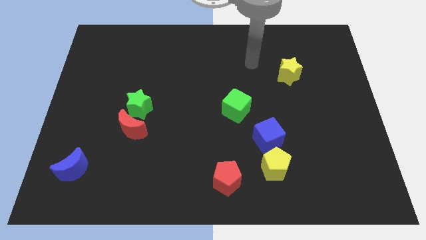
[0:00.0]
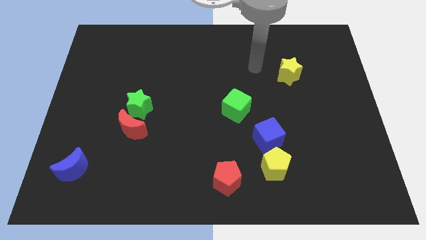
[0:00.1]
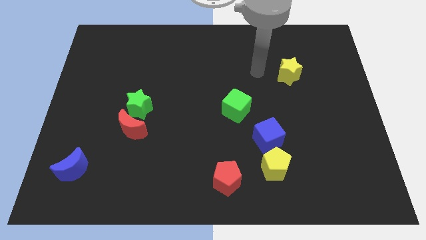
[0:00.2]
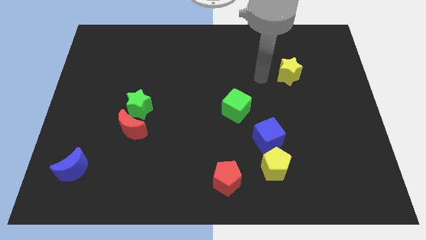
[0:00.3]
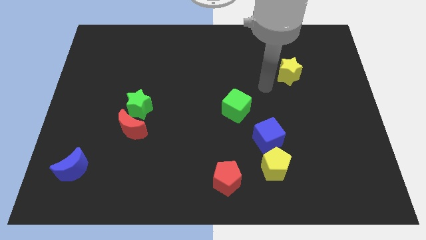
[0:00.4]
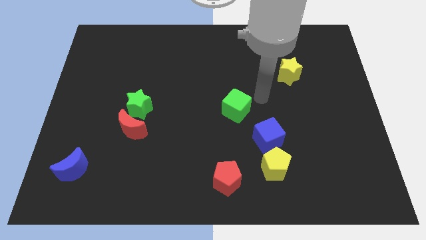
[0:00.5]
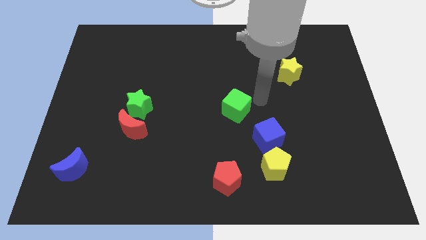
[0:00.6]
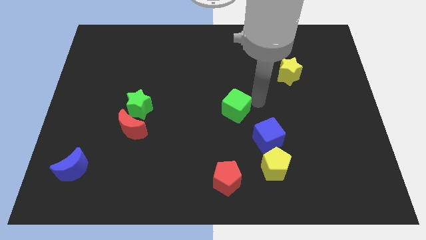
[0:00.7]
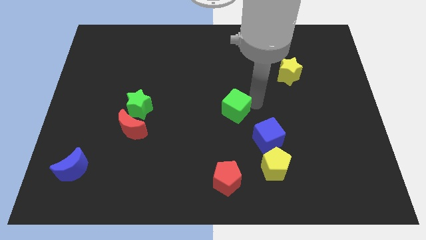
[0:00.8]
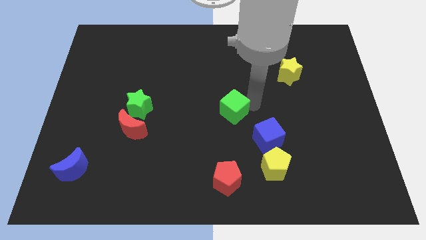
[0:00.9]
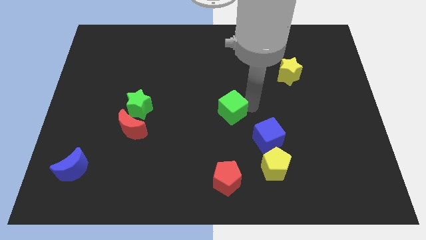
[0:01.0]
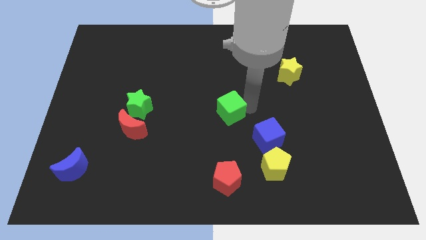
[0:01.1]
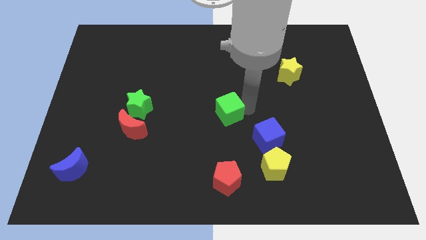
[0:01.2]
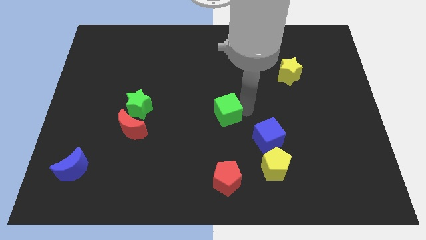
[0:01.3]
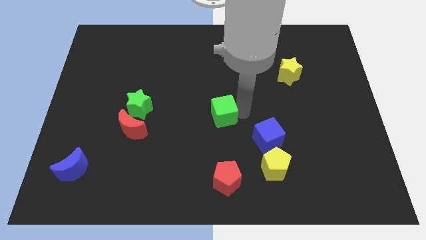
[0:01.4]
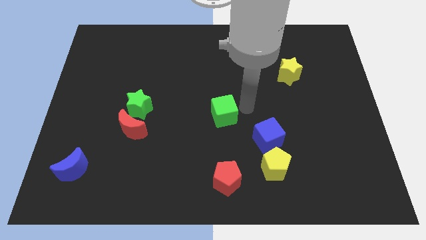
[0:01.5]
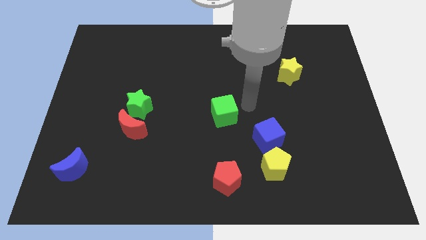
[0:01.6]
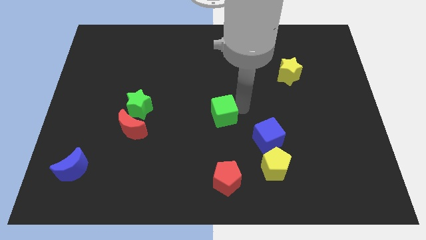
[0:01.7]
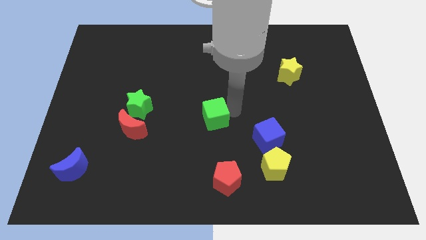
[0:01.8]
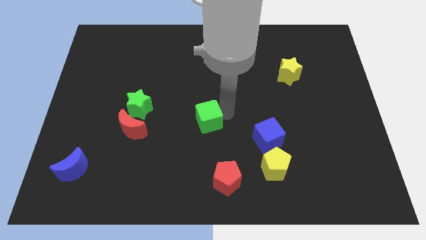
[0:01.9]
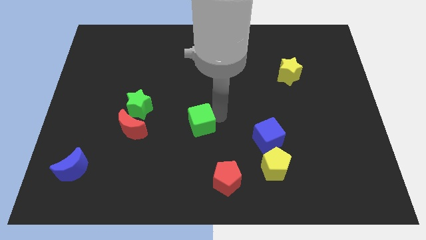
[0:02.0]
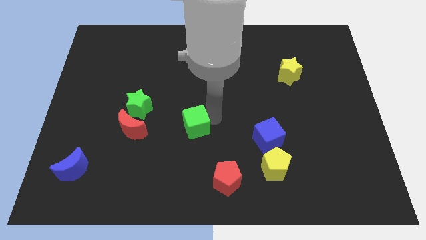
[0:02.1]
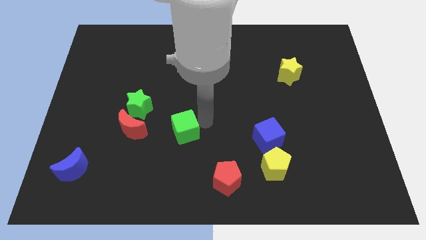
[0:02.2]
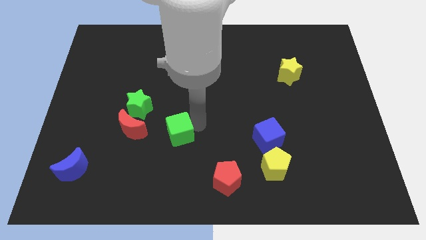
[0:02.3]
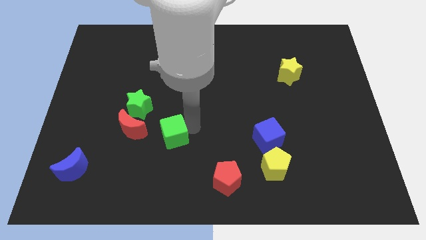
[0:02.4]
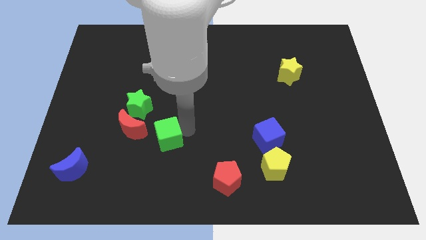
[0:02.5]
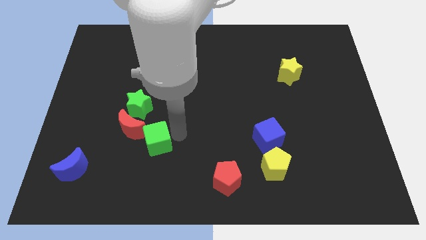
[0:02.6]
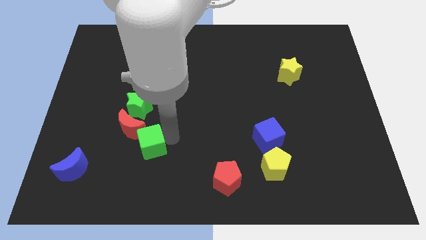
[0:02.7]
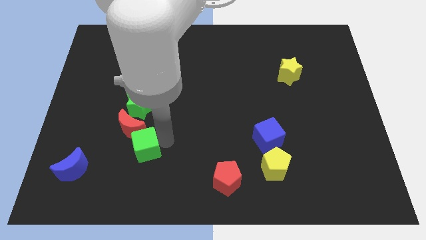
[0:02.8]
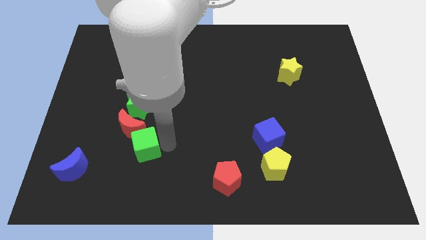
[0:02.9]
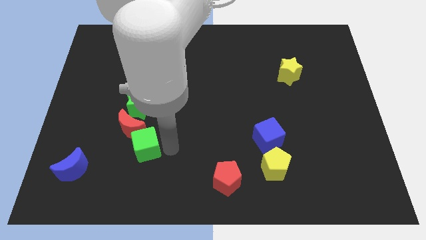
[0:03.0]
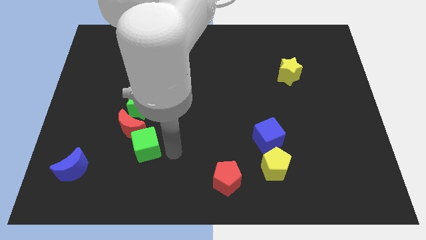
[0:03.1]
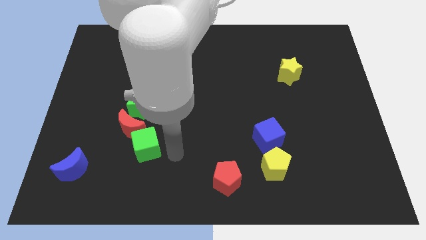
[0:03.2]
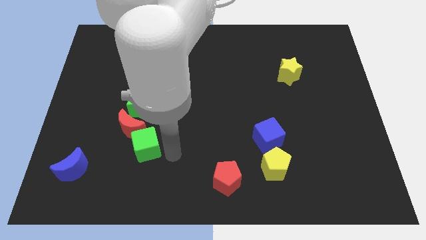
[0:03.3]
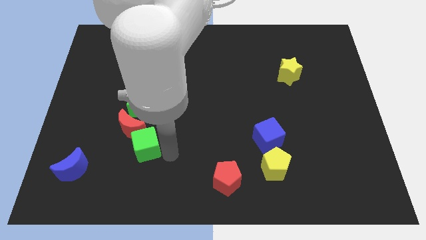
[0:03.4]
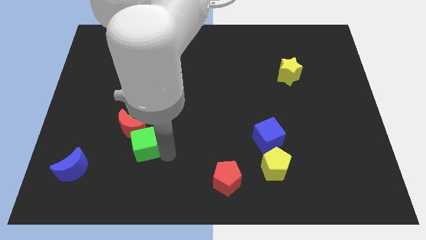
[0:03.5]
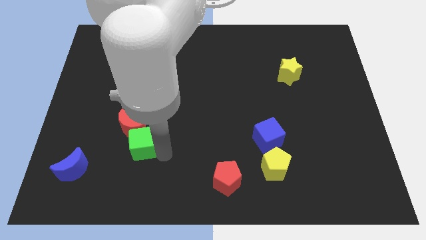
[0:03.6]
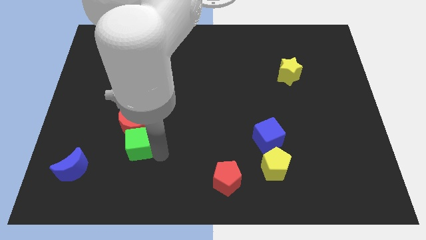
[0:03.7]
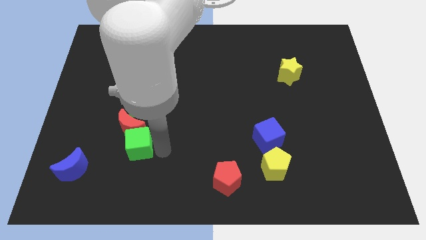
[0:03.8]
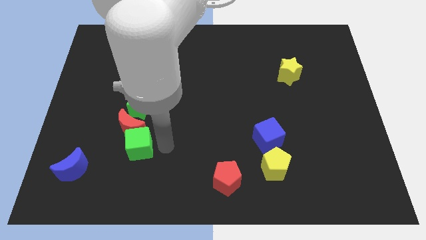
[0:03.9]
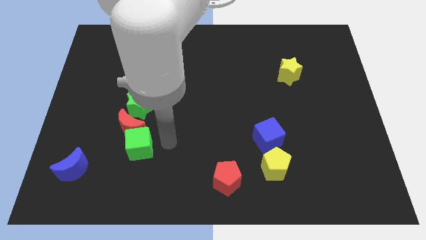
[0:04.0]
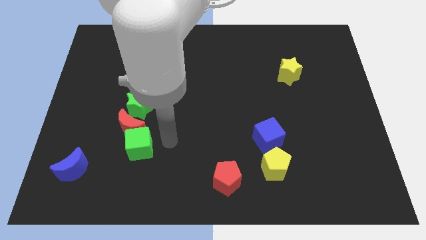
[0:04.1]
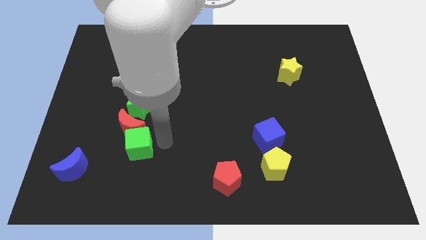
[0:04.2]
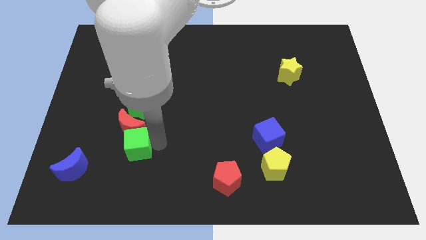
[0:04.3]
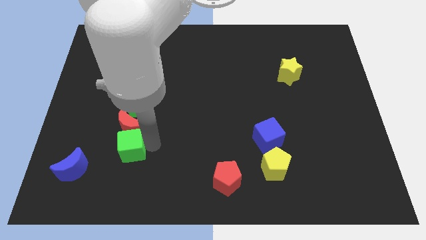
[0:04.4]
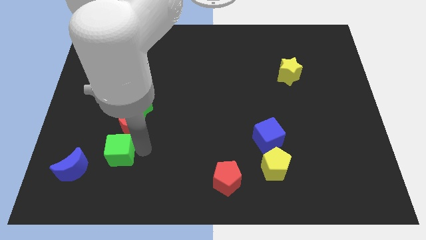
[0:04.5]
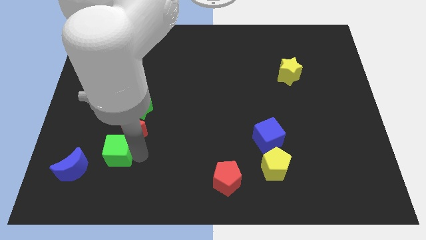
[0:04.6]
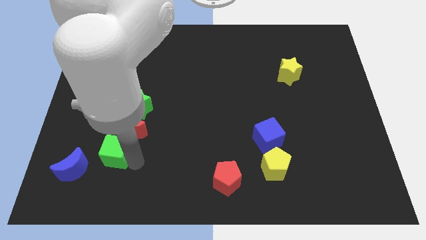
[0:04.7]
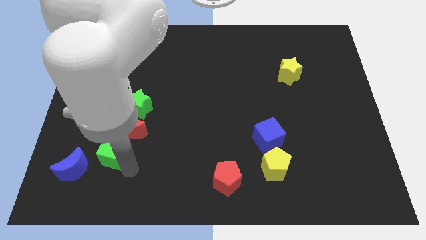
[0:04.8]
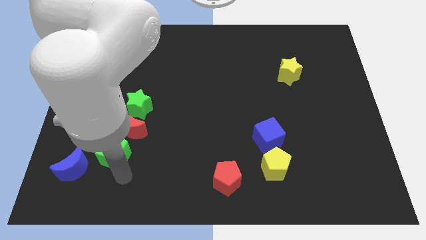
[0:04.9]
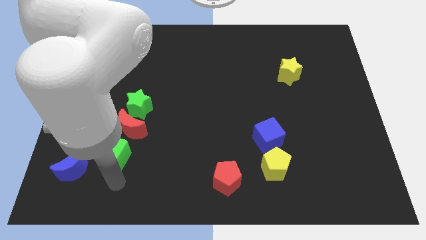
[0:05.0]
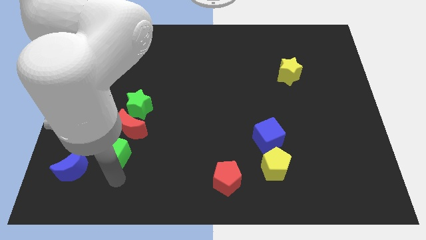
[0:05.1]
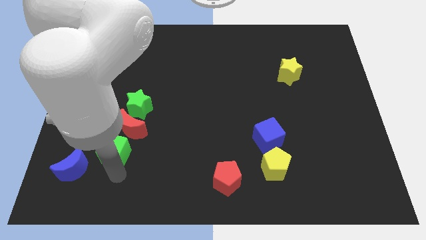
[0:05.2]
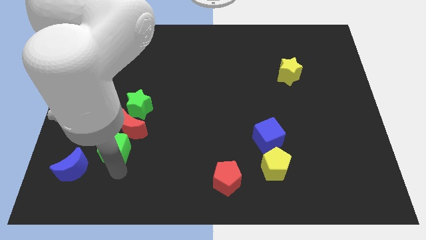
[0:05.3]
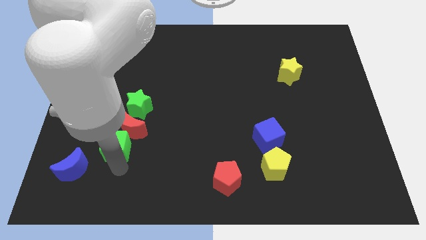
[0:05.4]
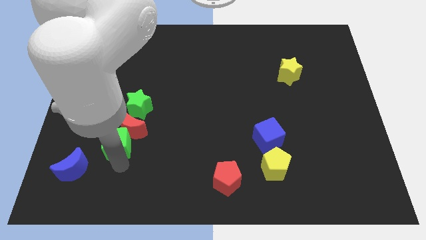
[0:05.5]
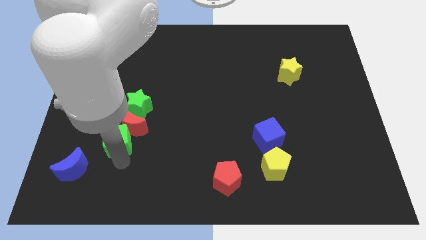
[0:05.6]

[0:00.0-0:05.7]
put the green cube to the bottom left of the green star

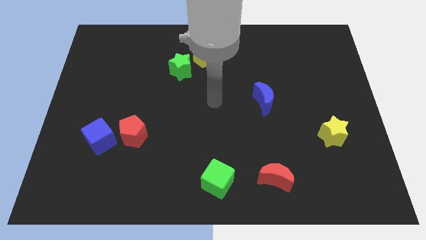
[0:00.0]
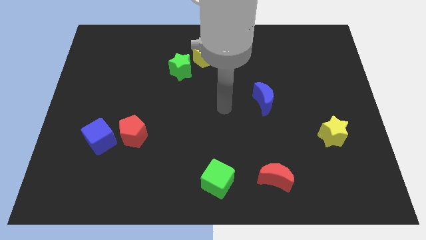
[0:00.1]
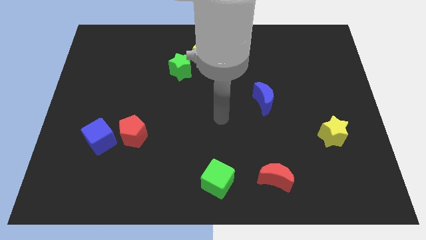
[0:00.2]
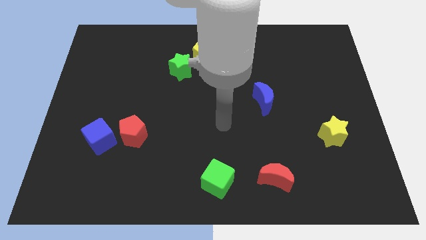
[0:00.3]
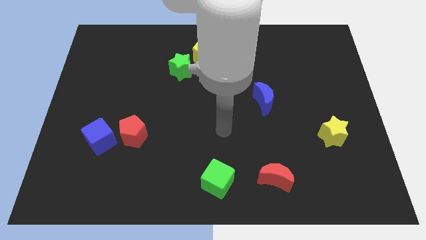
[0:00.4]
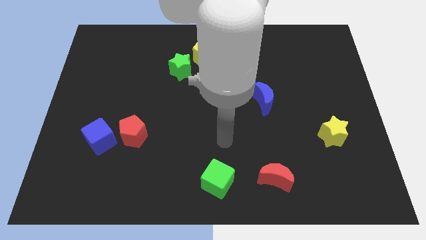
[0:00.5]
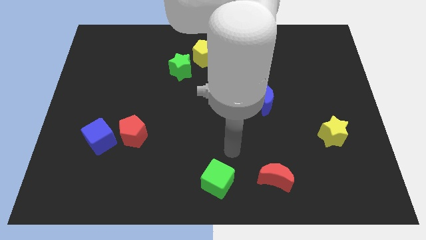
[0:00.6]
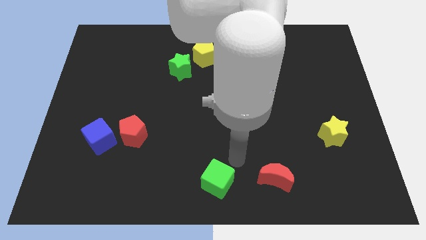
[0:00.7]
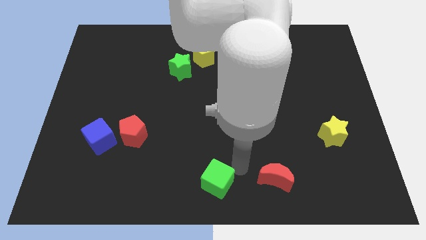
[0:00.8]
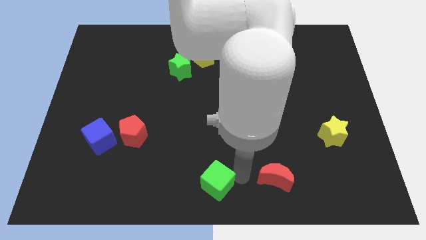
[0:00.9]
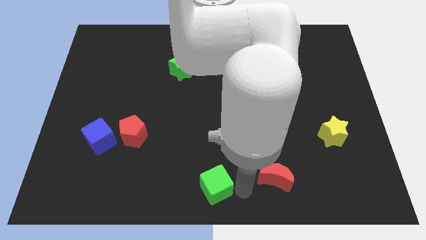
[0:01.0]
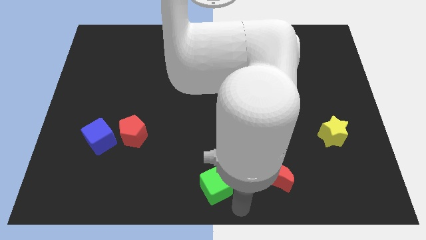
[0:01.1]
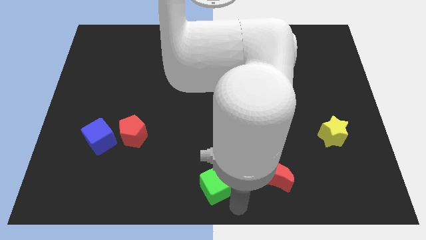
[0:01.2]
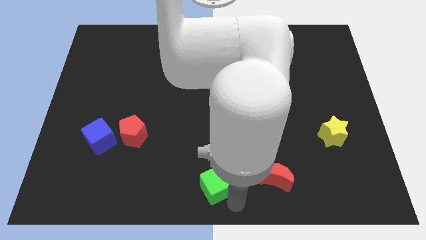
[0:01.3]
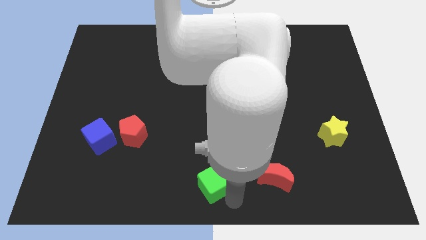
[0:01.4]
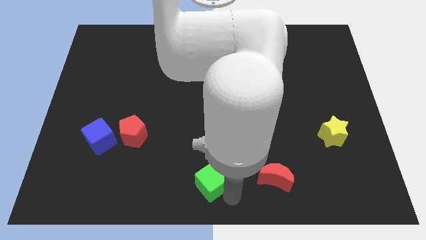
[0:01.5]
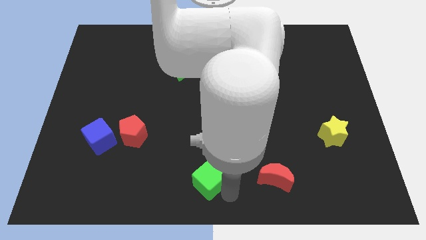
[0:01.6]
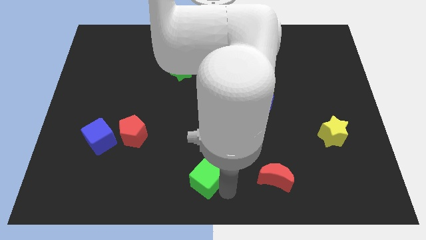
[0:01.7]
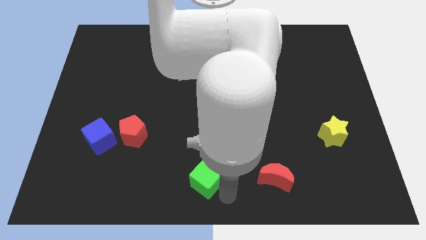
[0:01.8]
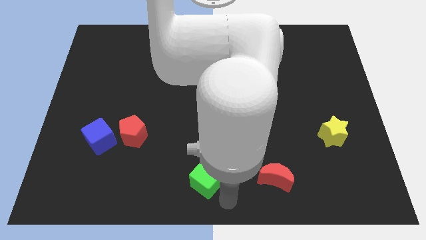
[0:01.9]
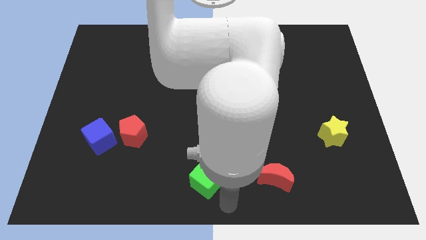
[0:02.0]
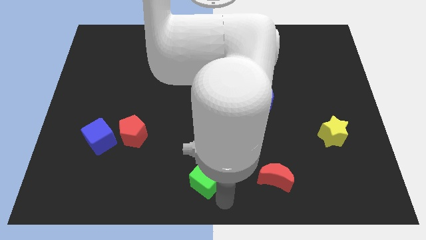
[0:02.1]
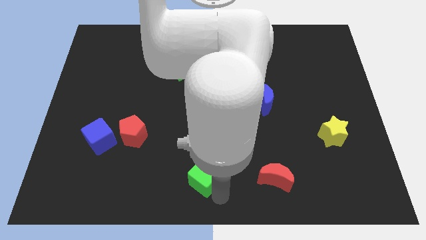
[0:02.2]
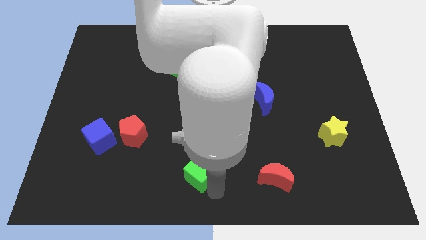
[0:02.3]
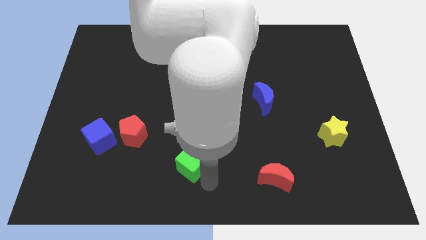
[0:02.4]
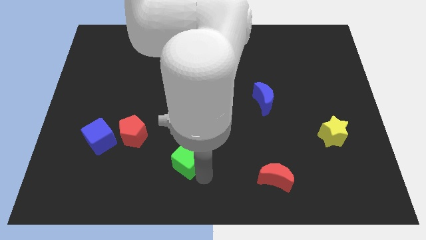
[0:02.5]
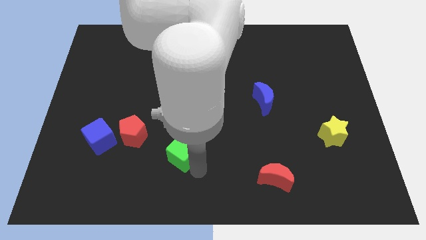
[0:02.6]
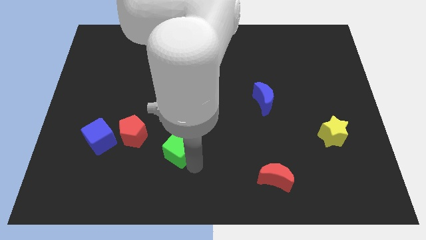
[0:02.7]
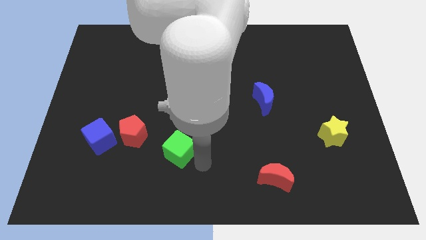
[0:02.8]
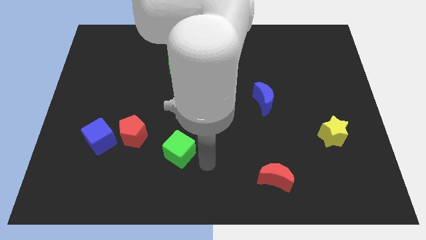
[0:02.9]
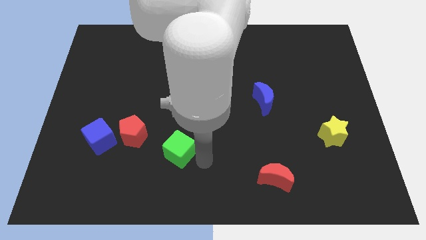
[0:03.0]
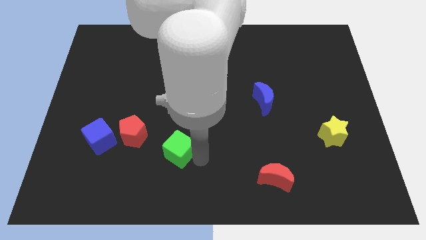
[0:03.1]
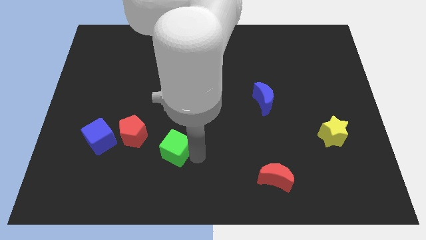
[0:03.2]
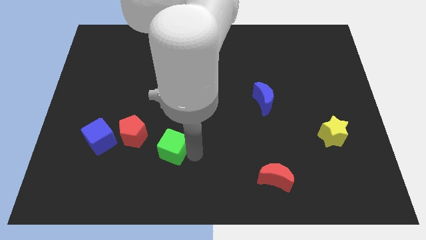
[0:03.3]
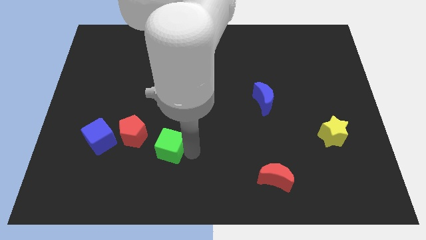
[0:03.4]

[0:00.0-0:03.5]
put the green cube just right of the blue cube
